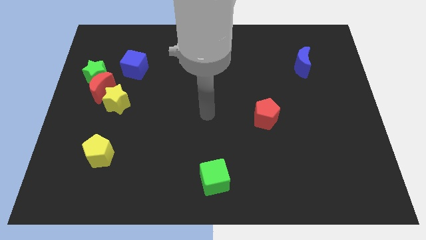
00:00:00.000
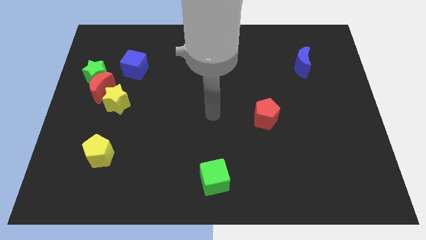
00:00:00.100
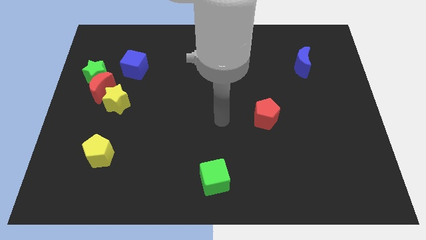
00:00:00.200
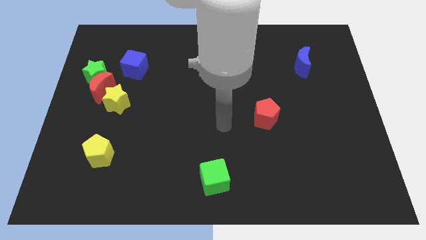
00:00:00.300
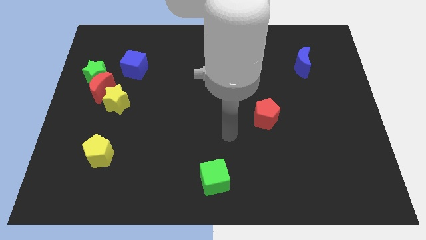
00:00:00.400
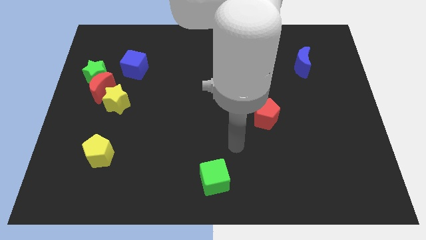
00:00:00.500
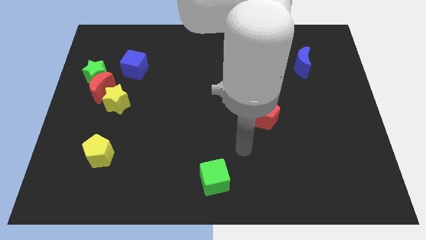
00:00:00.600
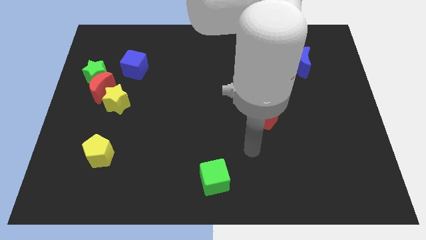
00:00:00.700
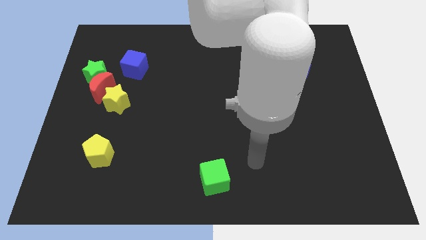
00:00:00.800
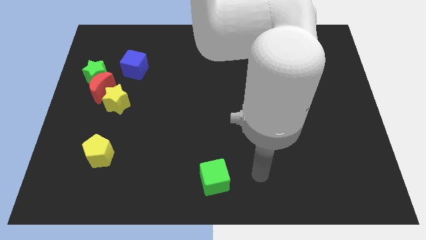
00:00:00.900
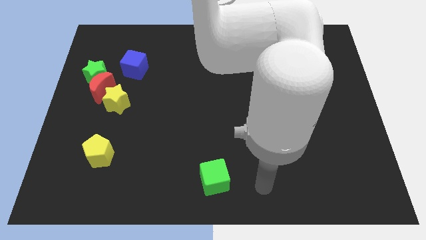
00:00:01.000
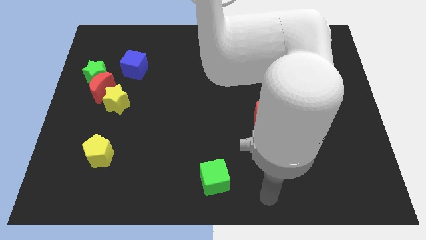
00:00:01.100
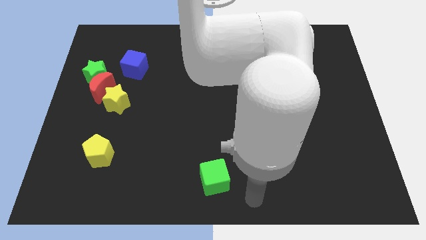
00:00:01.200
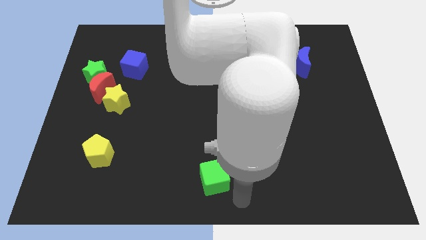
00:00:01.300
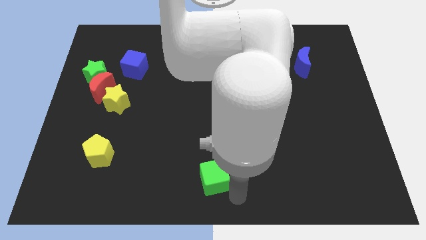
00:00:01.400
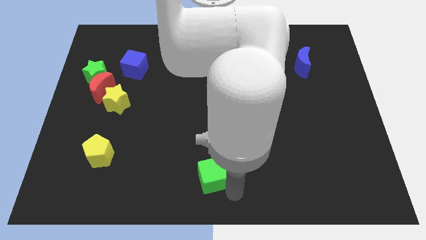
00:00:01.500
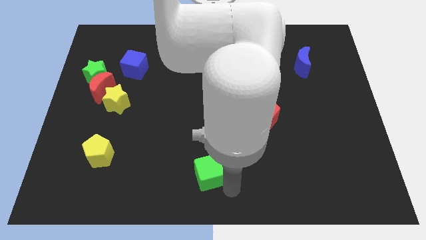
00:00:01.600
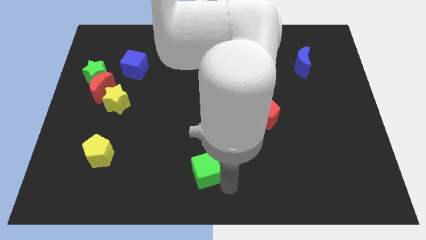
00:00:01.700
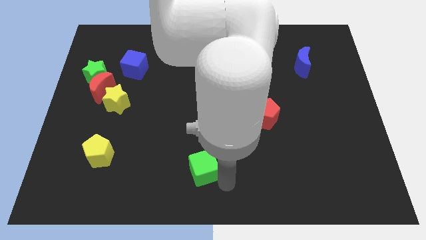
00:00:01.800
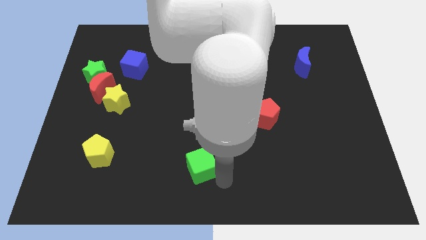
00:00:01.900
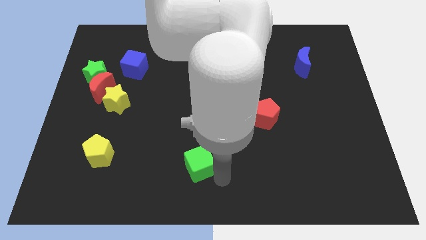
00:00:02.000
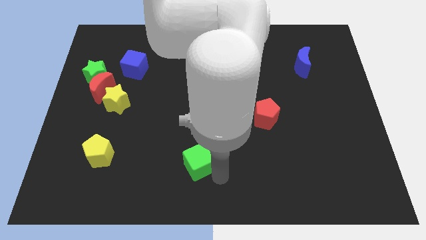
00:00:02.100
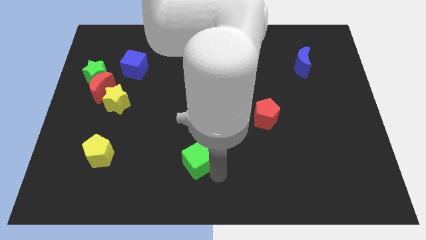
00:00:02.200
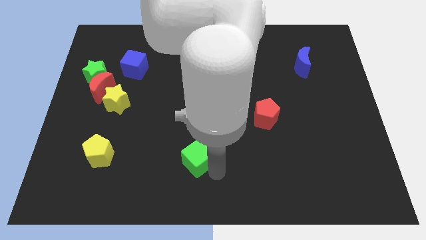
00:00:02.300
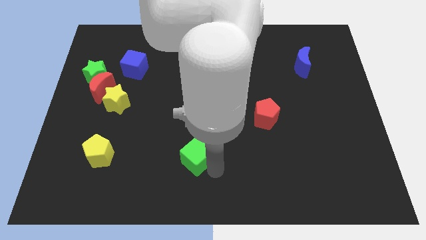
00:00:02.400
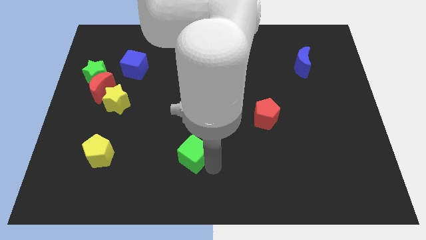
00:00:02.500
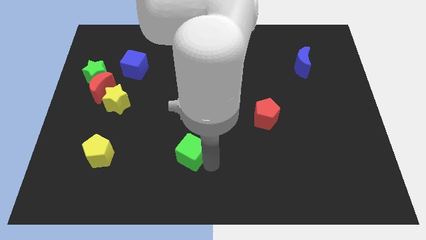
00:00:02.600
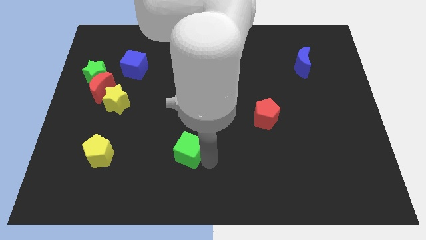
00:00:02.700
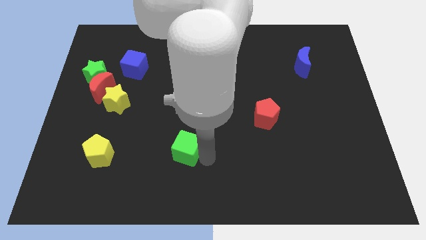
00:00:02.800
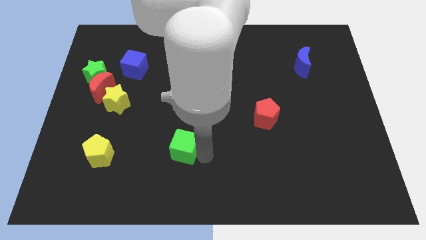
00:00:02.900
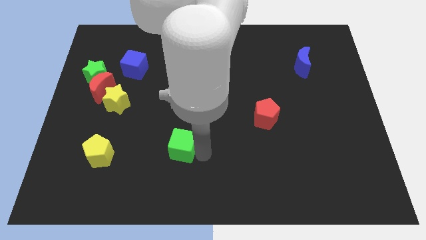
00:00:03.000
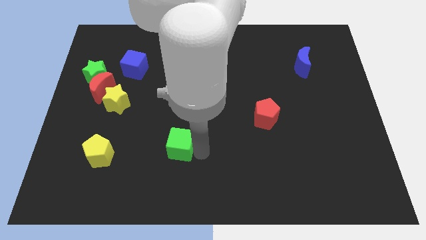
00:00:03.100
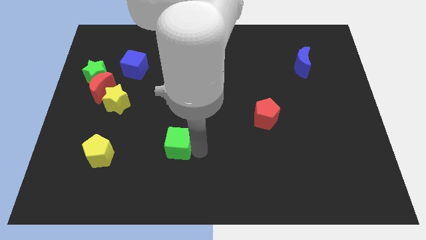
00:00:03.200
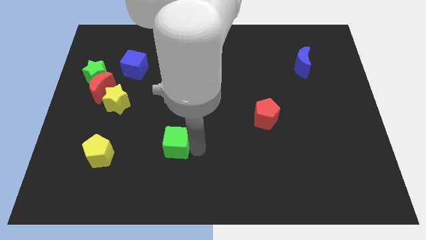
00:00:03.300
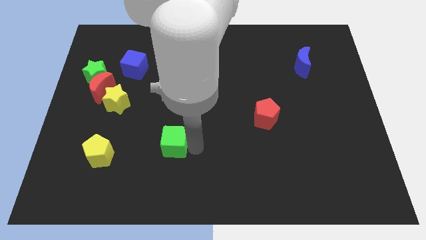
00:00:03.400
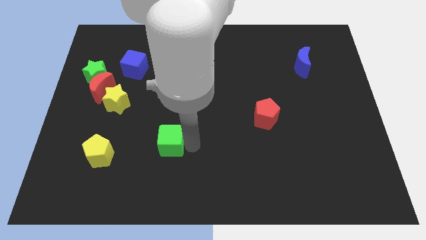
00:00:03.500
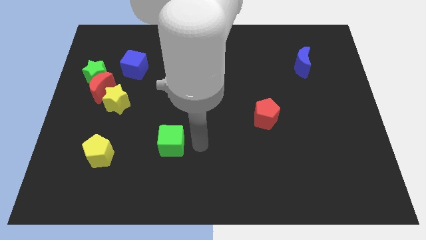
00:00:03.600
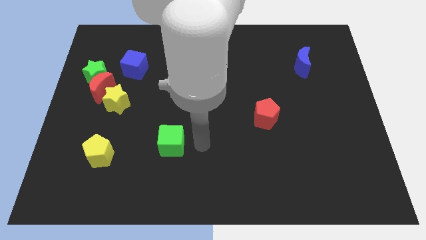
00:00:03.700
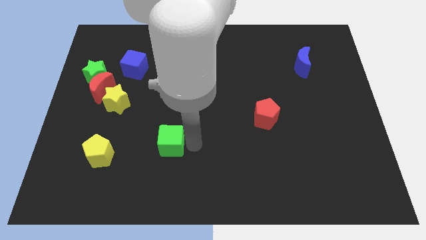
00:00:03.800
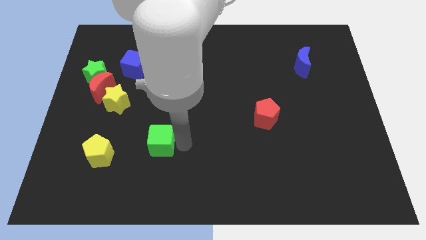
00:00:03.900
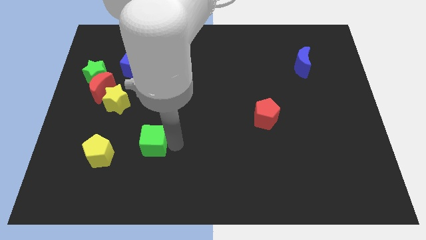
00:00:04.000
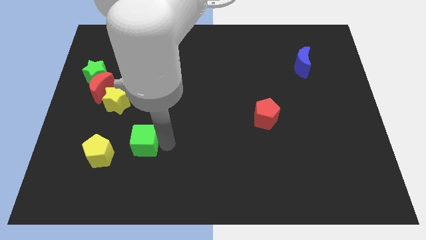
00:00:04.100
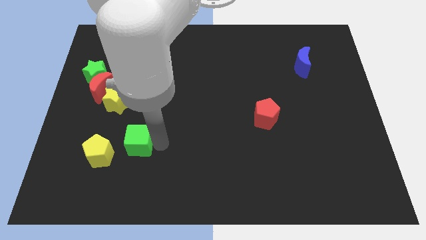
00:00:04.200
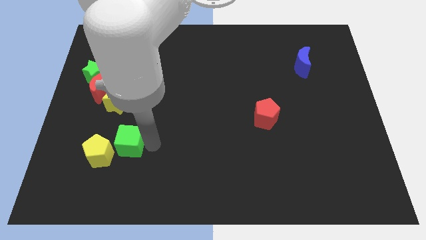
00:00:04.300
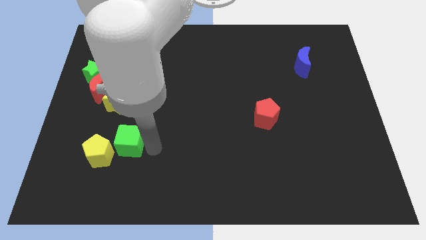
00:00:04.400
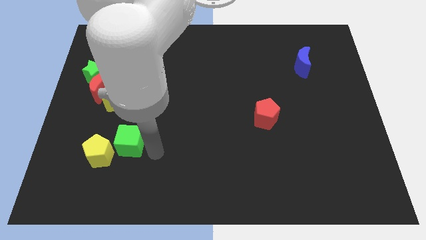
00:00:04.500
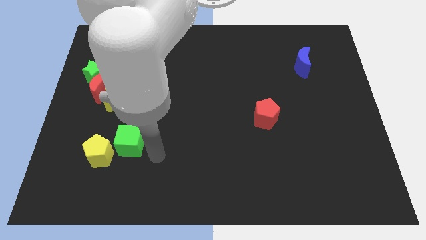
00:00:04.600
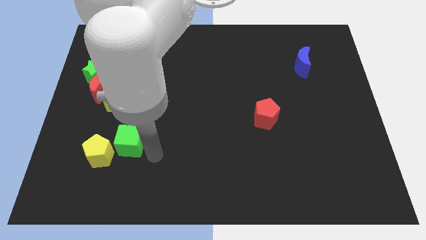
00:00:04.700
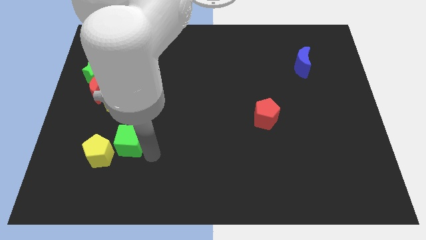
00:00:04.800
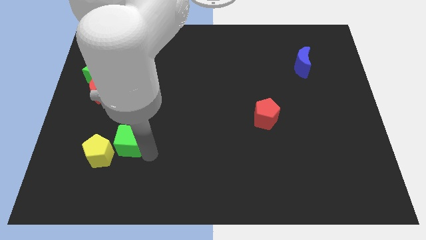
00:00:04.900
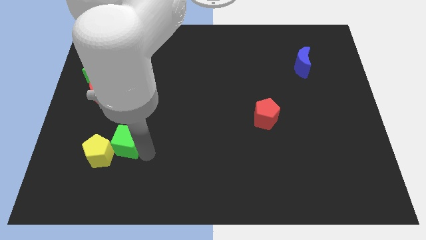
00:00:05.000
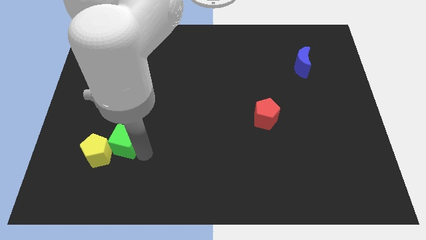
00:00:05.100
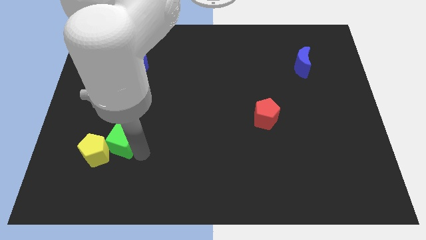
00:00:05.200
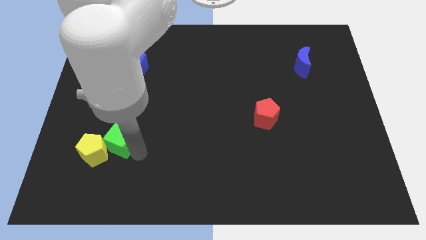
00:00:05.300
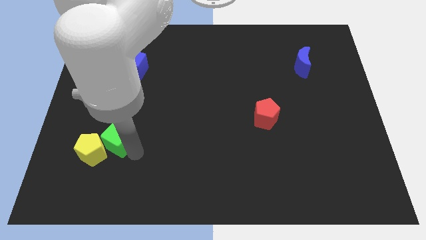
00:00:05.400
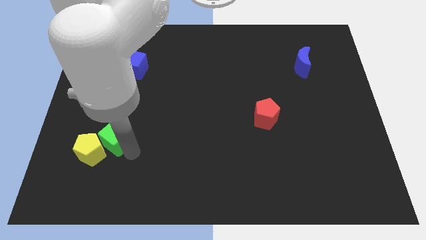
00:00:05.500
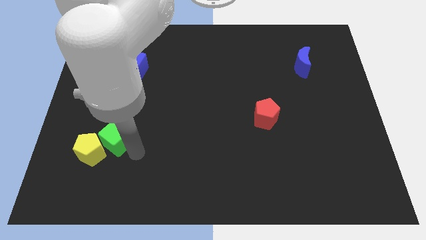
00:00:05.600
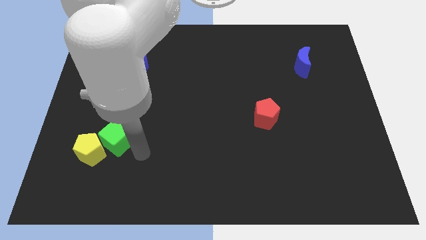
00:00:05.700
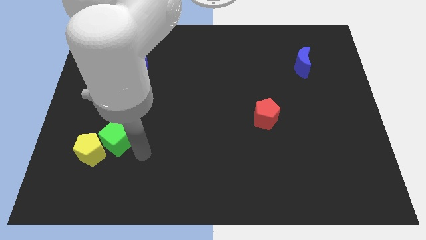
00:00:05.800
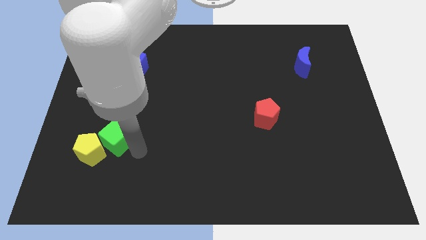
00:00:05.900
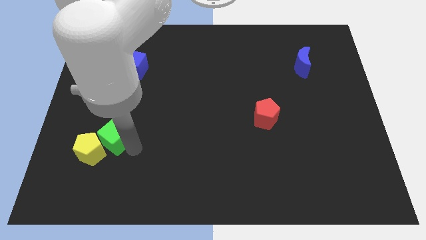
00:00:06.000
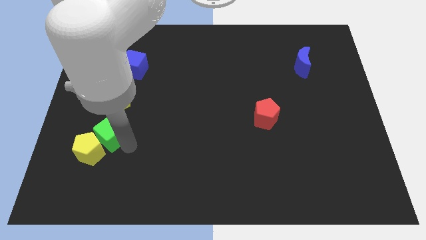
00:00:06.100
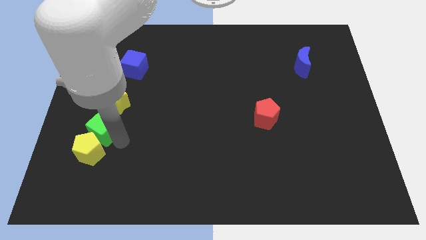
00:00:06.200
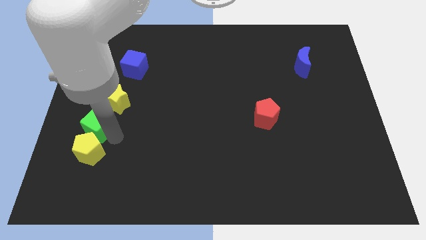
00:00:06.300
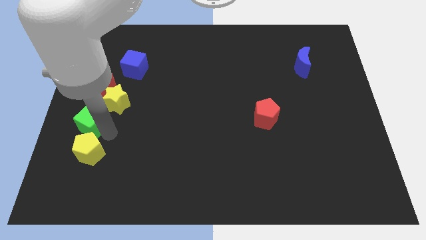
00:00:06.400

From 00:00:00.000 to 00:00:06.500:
put the green cube to the left side
